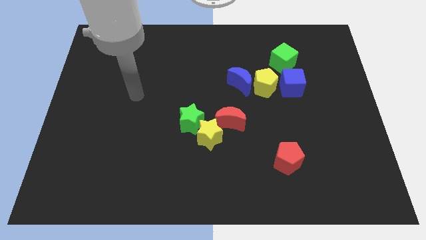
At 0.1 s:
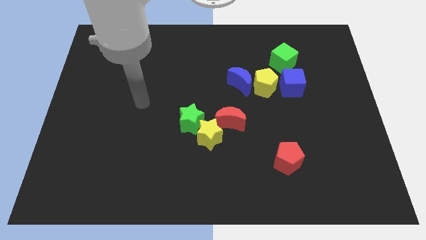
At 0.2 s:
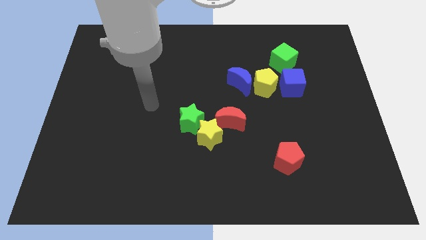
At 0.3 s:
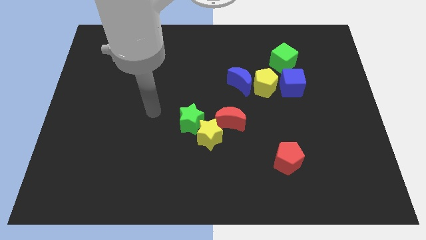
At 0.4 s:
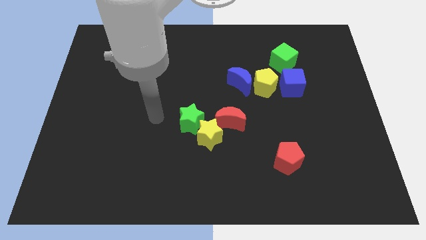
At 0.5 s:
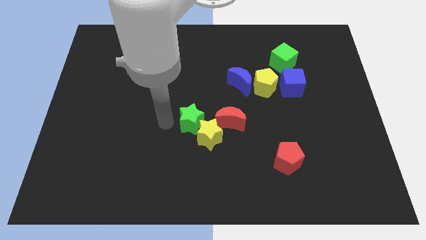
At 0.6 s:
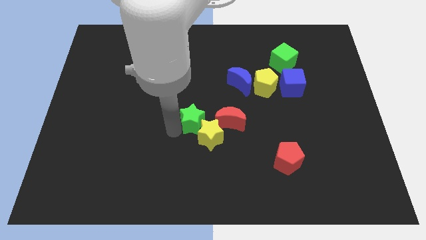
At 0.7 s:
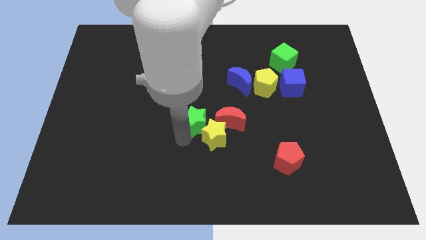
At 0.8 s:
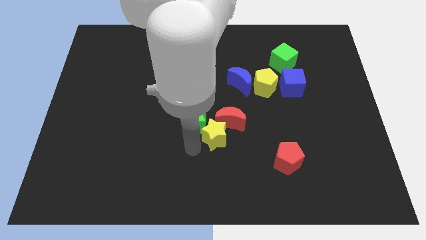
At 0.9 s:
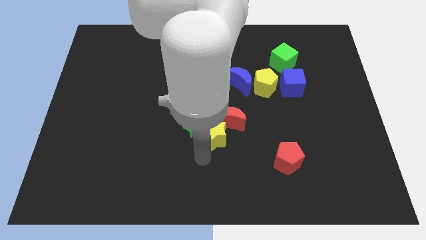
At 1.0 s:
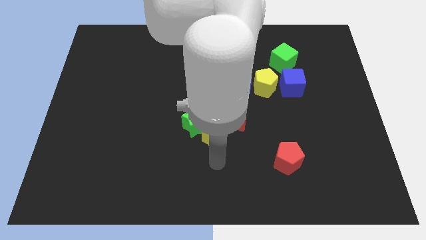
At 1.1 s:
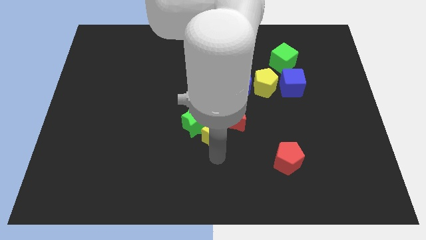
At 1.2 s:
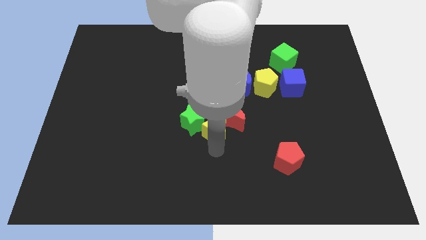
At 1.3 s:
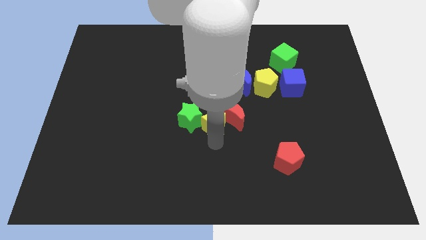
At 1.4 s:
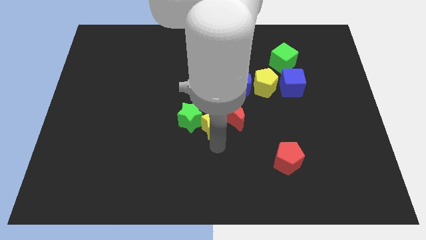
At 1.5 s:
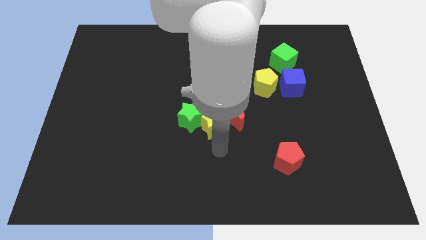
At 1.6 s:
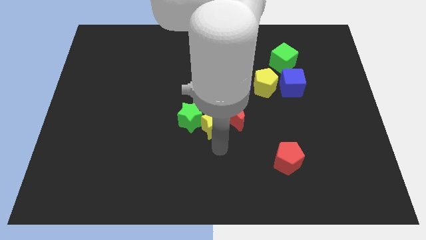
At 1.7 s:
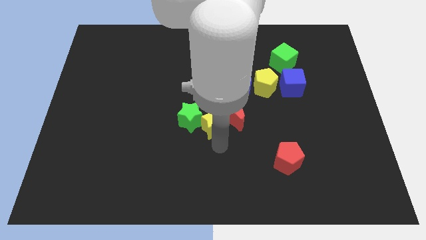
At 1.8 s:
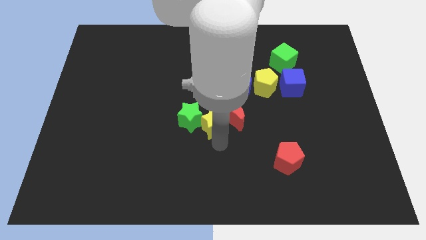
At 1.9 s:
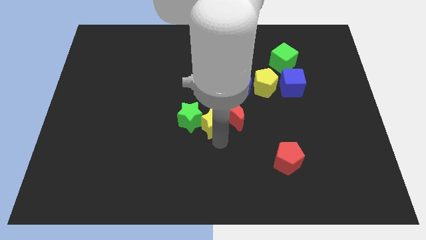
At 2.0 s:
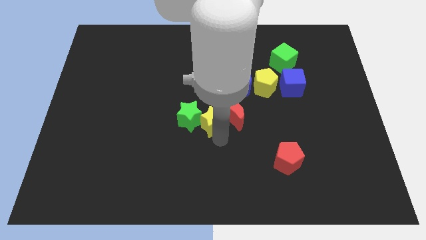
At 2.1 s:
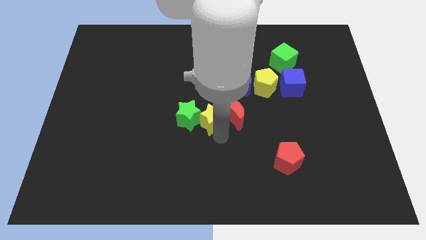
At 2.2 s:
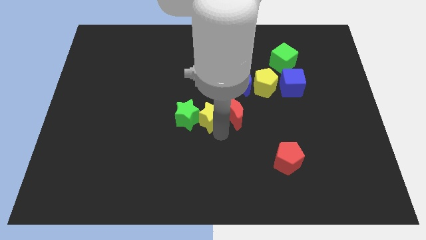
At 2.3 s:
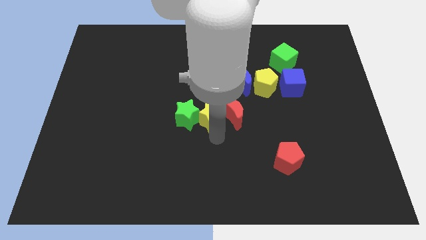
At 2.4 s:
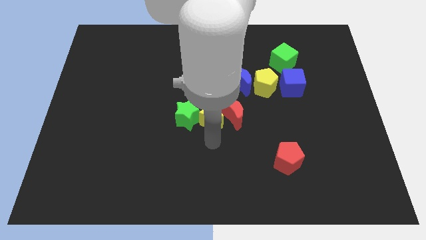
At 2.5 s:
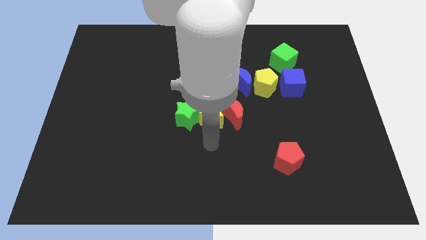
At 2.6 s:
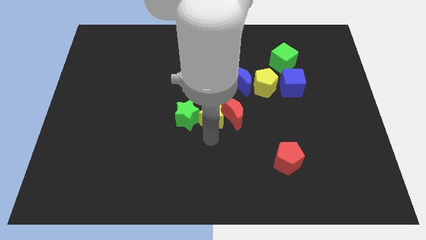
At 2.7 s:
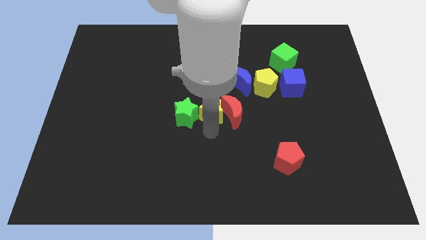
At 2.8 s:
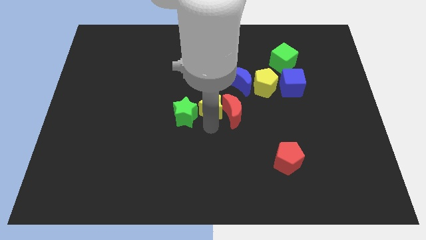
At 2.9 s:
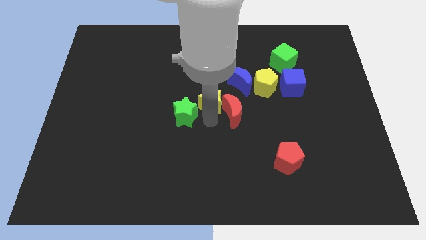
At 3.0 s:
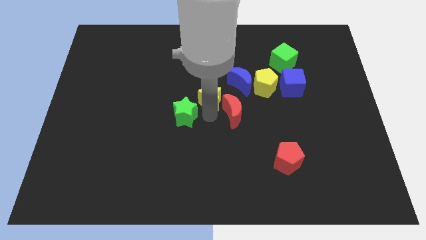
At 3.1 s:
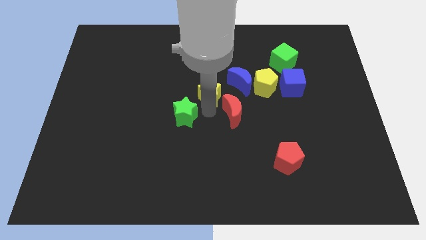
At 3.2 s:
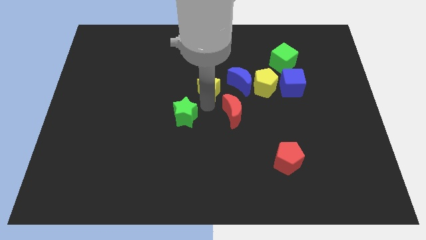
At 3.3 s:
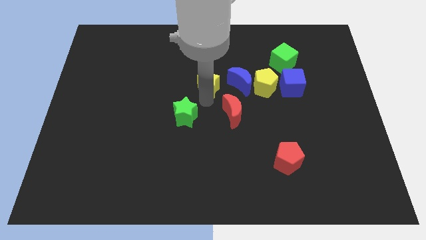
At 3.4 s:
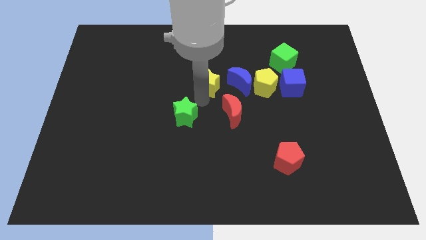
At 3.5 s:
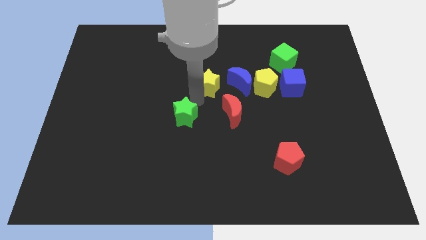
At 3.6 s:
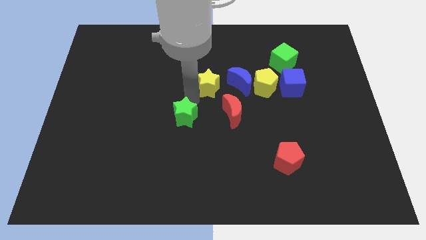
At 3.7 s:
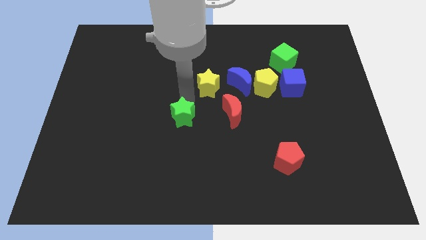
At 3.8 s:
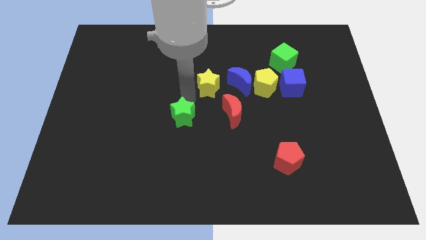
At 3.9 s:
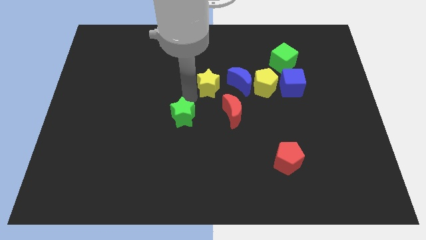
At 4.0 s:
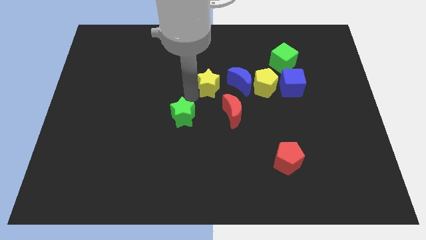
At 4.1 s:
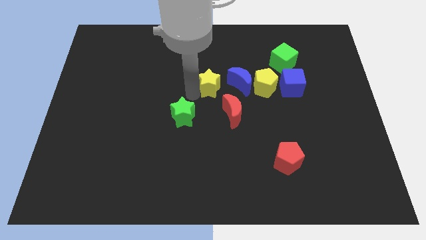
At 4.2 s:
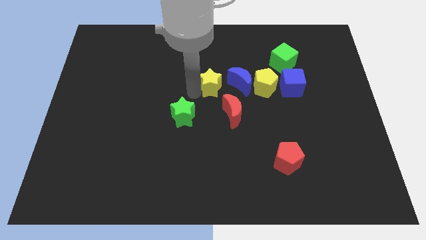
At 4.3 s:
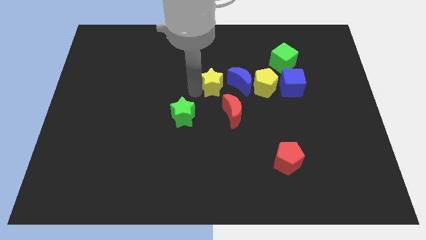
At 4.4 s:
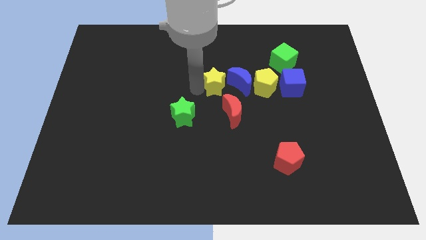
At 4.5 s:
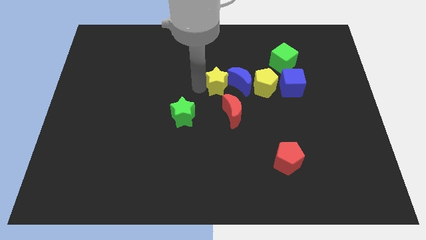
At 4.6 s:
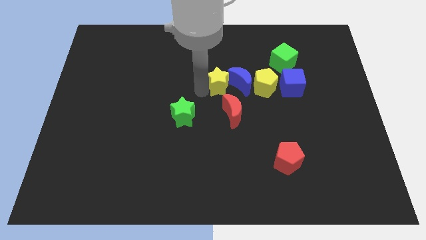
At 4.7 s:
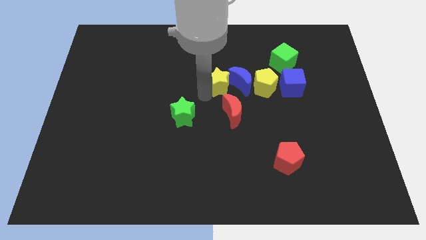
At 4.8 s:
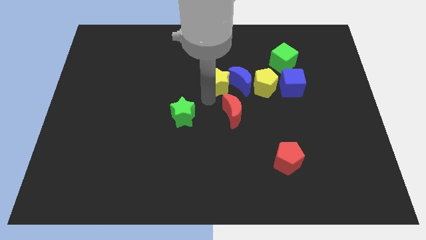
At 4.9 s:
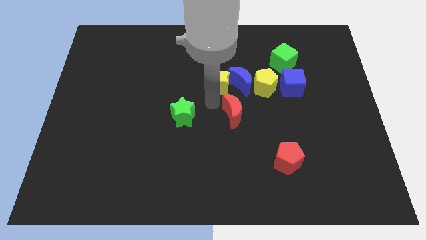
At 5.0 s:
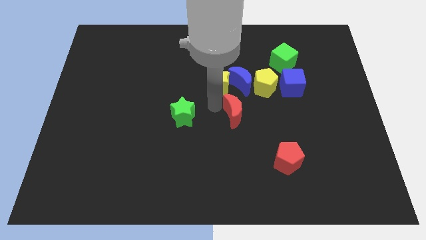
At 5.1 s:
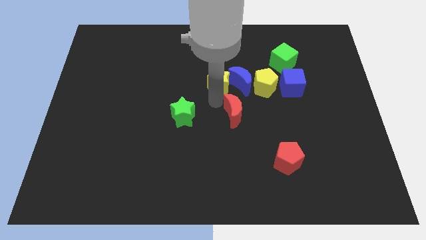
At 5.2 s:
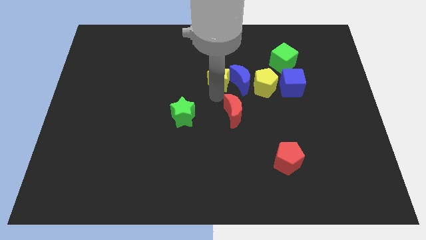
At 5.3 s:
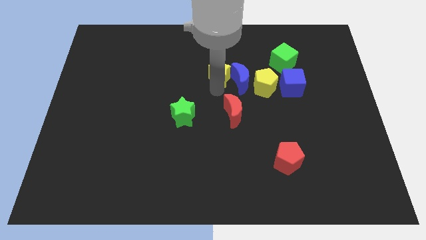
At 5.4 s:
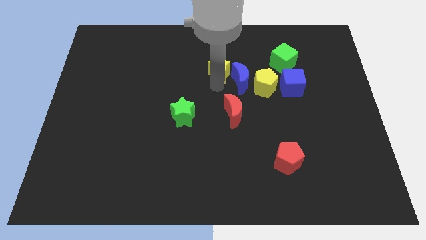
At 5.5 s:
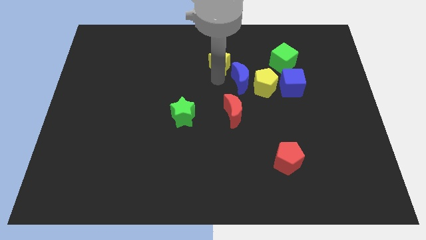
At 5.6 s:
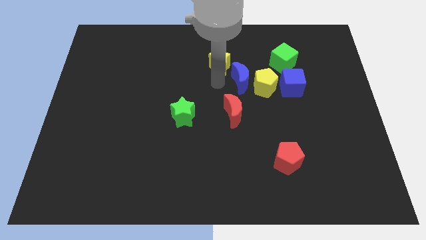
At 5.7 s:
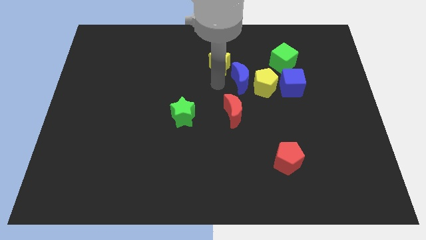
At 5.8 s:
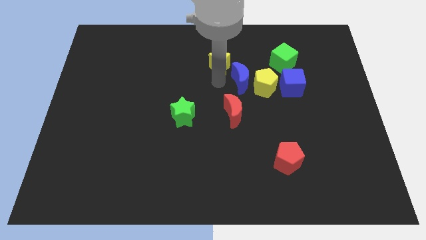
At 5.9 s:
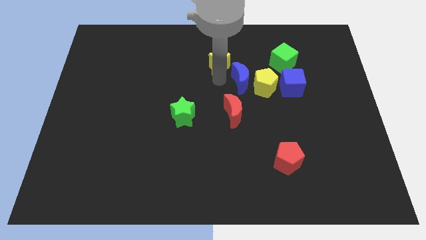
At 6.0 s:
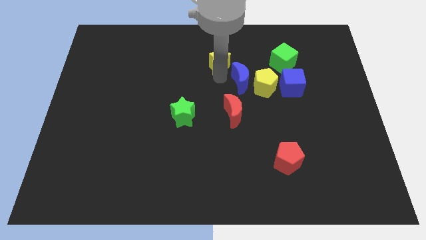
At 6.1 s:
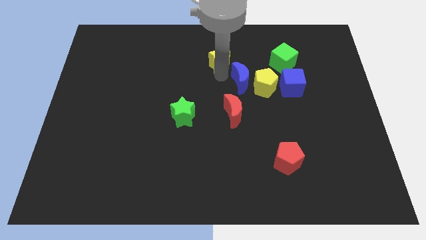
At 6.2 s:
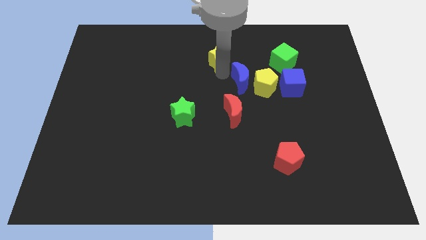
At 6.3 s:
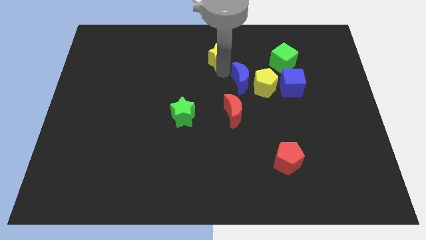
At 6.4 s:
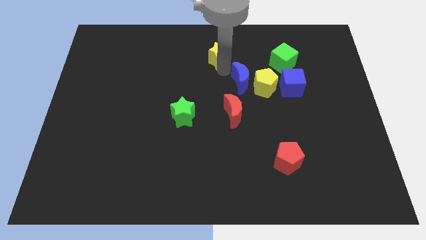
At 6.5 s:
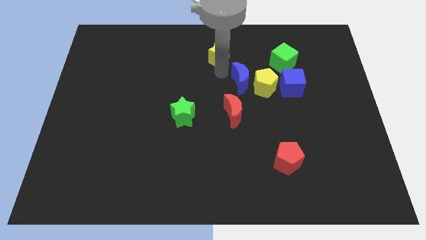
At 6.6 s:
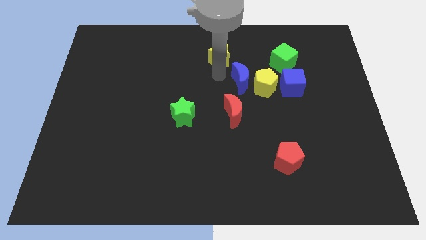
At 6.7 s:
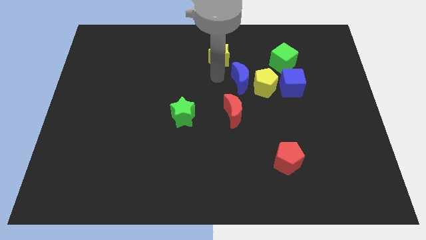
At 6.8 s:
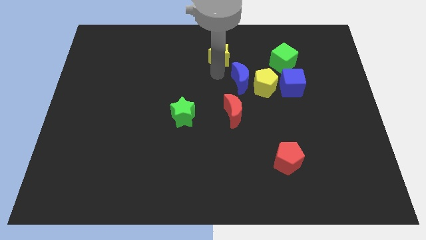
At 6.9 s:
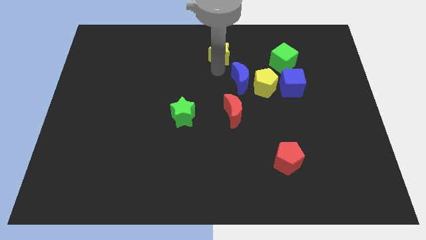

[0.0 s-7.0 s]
push the yellow star to the towards your base
